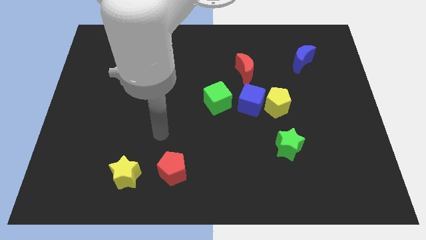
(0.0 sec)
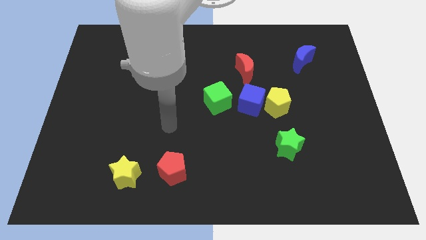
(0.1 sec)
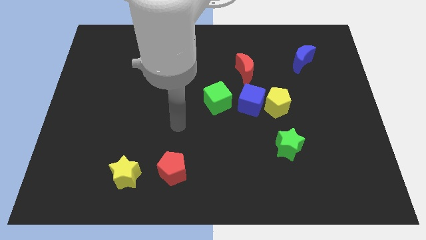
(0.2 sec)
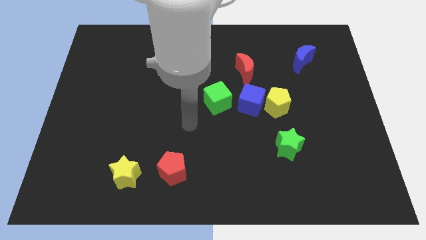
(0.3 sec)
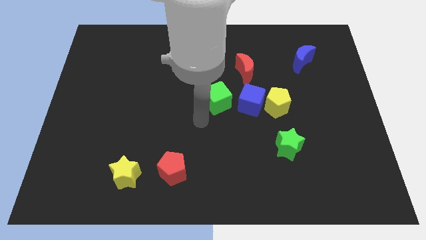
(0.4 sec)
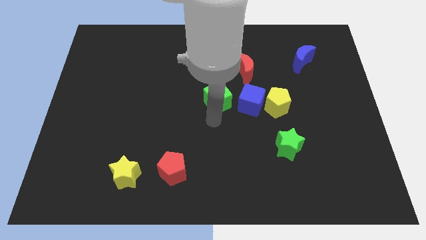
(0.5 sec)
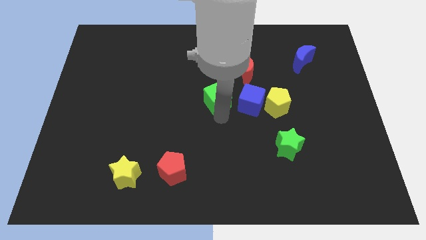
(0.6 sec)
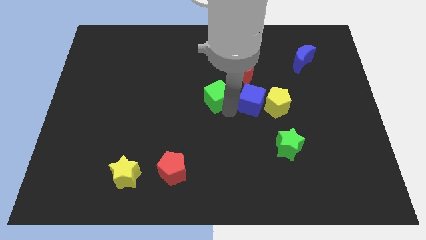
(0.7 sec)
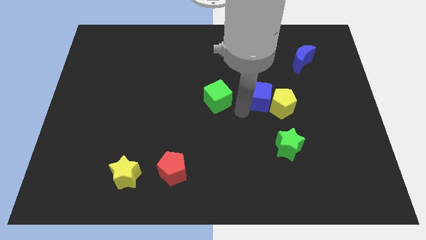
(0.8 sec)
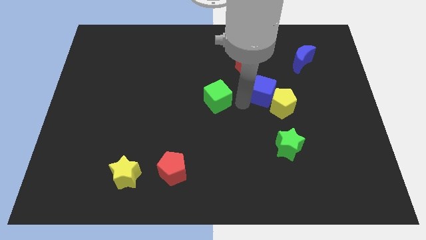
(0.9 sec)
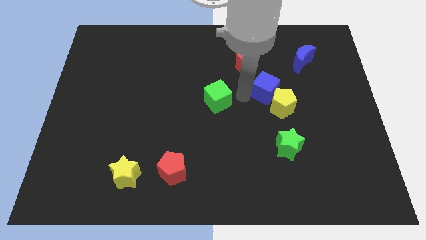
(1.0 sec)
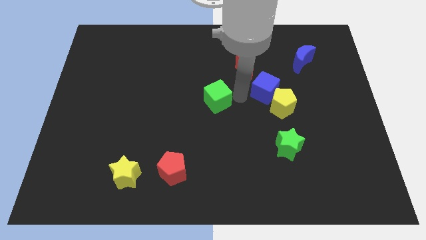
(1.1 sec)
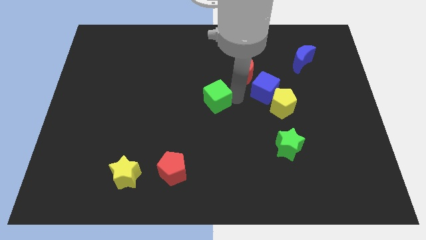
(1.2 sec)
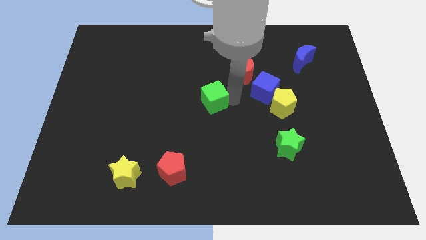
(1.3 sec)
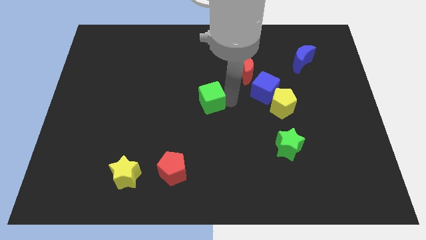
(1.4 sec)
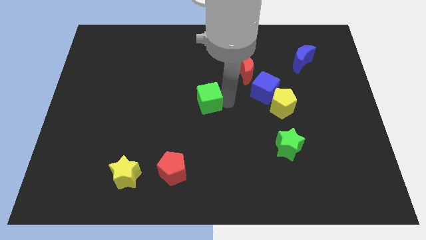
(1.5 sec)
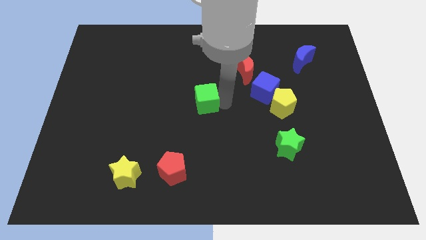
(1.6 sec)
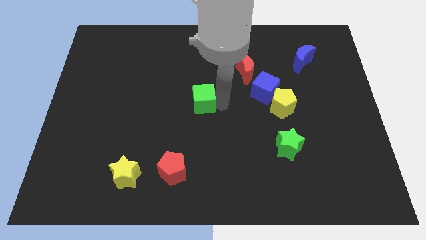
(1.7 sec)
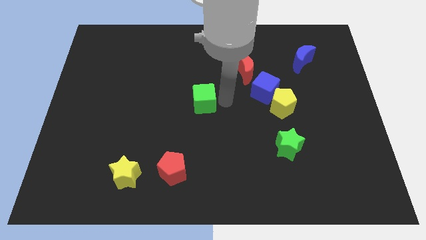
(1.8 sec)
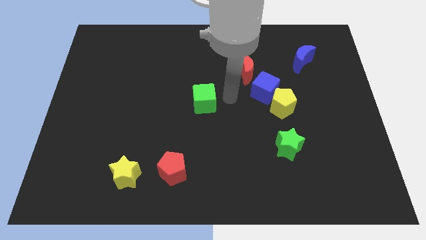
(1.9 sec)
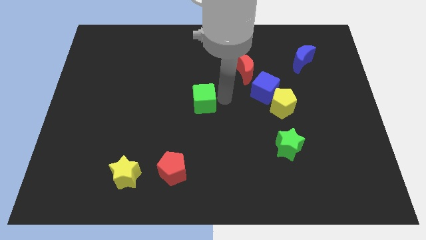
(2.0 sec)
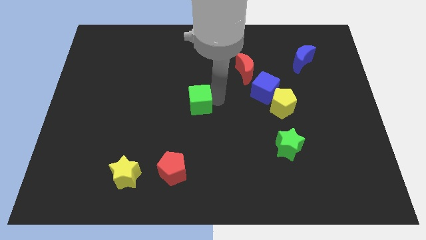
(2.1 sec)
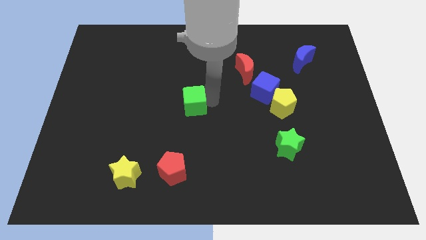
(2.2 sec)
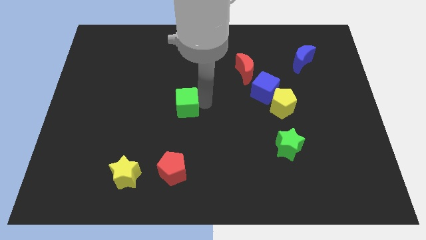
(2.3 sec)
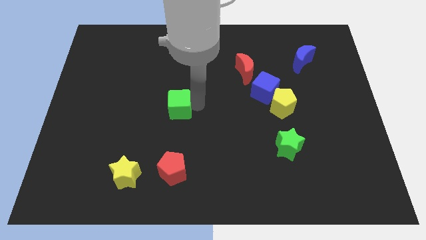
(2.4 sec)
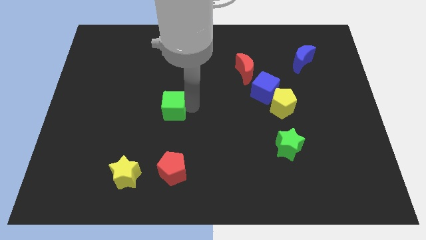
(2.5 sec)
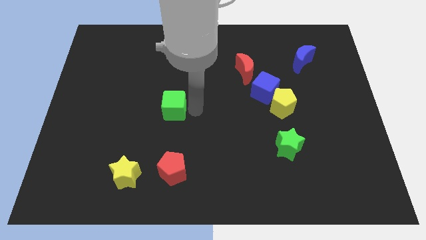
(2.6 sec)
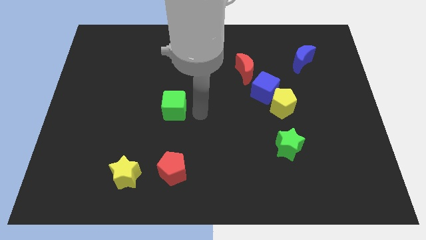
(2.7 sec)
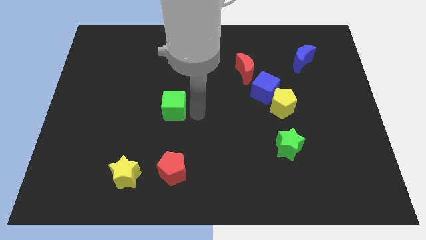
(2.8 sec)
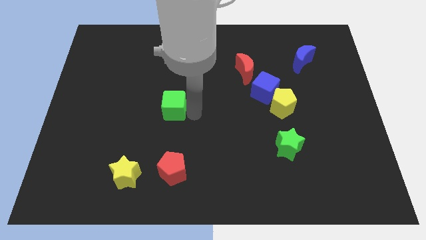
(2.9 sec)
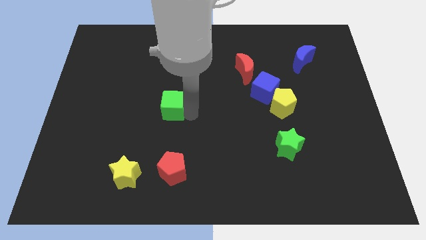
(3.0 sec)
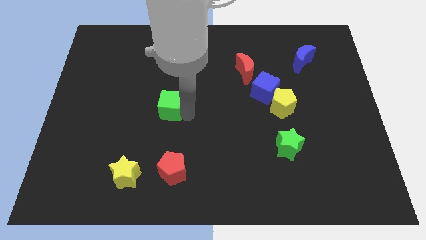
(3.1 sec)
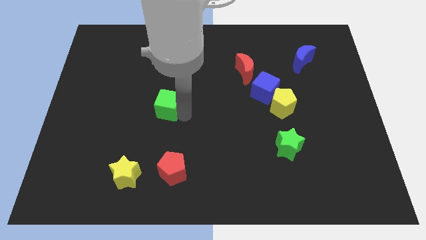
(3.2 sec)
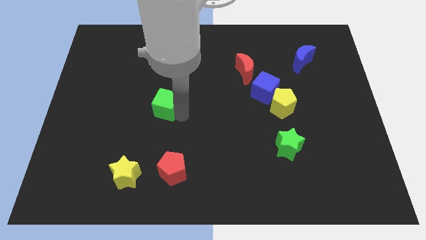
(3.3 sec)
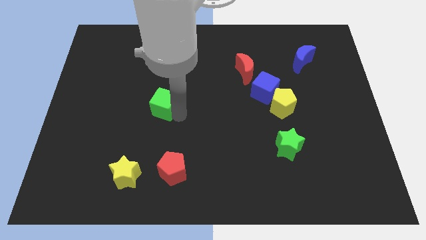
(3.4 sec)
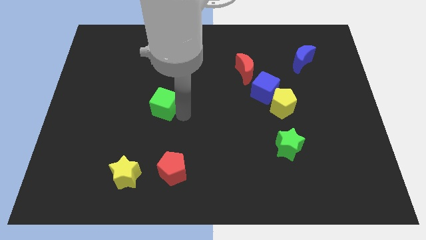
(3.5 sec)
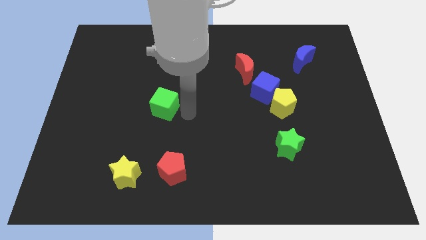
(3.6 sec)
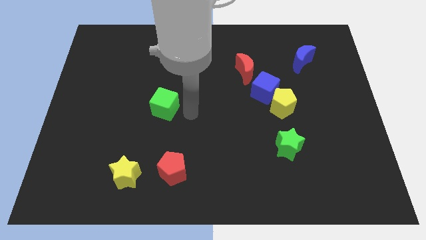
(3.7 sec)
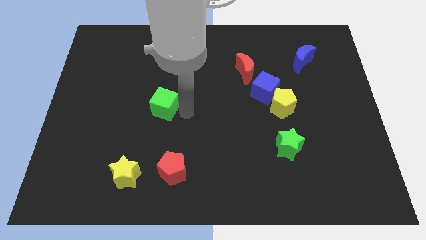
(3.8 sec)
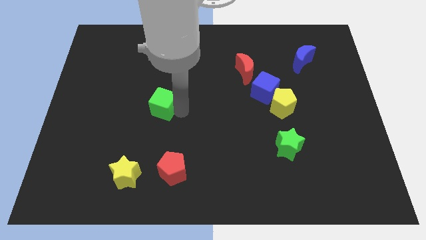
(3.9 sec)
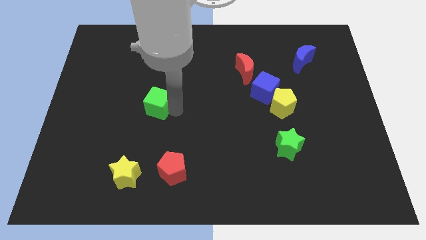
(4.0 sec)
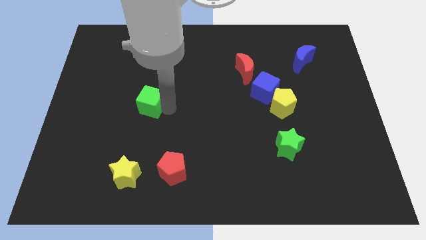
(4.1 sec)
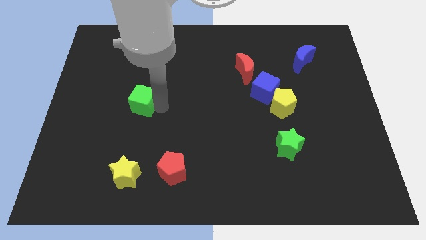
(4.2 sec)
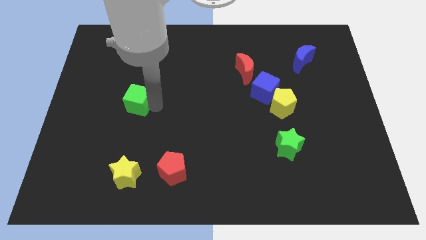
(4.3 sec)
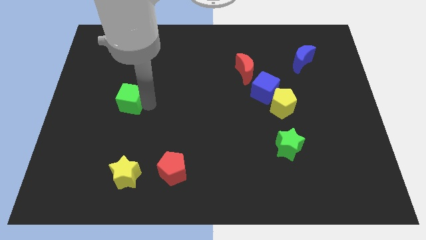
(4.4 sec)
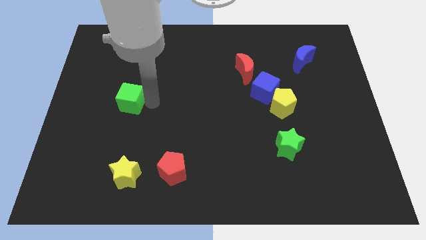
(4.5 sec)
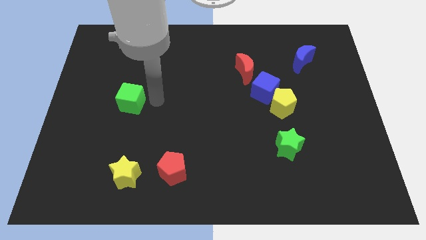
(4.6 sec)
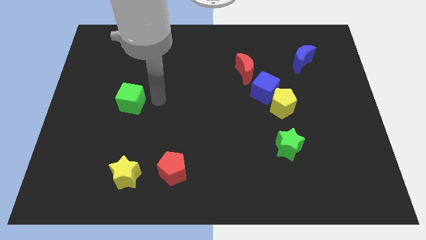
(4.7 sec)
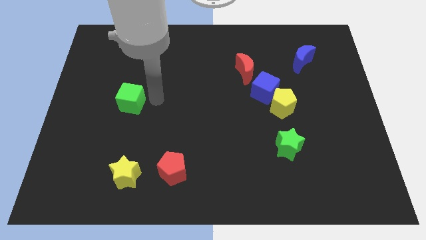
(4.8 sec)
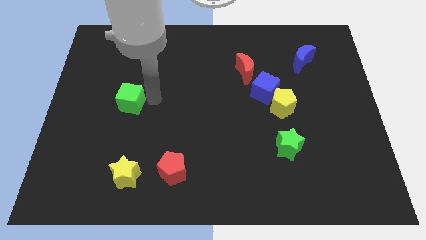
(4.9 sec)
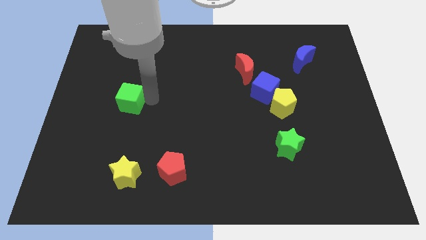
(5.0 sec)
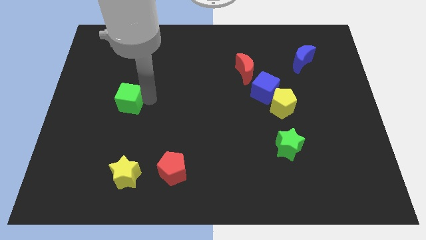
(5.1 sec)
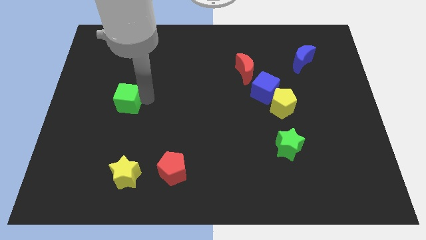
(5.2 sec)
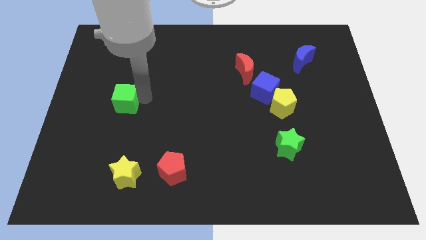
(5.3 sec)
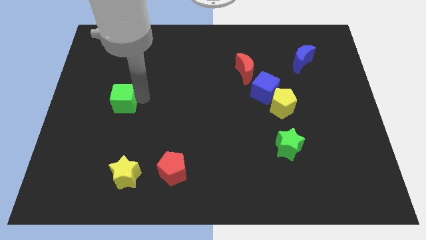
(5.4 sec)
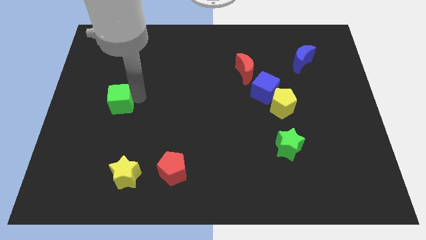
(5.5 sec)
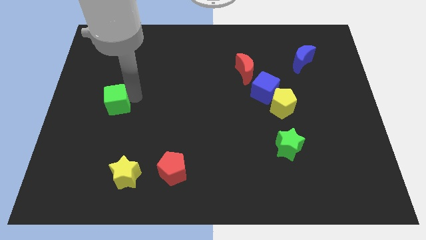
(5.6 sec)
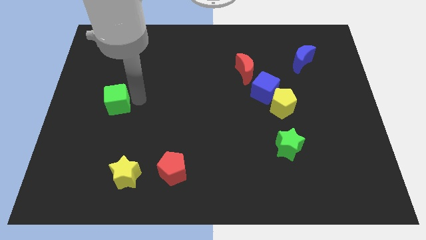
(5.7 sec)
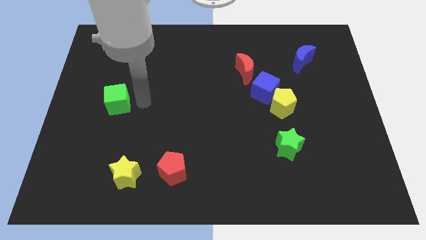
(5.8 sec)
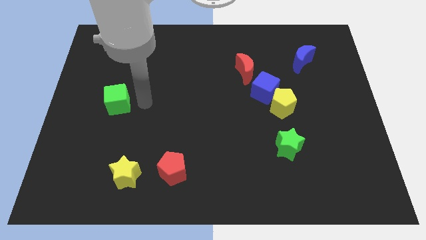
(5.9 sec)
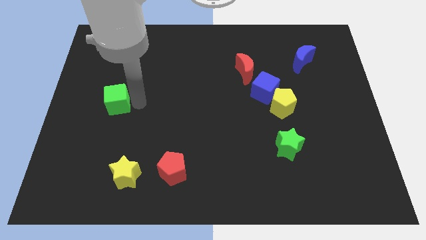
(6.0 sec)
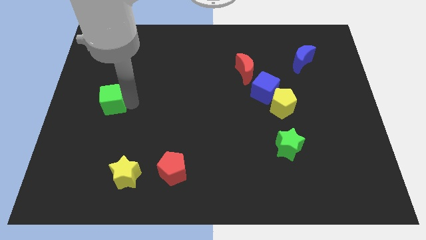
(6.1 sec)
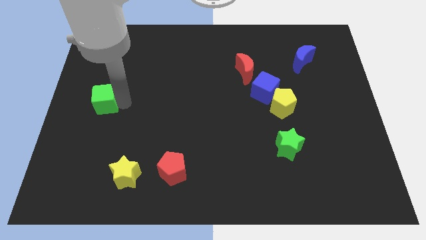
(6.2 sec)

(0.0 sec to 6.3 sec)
put the green cube to the left side
